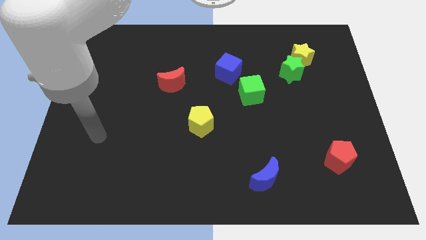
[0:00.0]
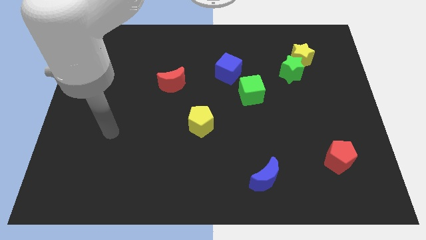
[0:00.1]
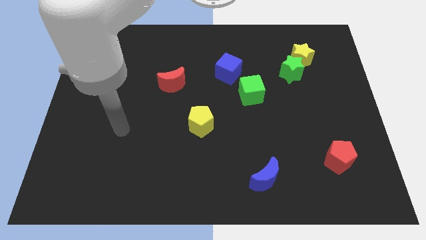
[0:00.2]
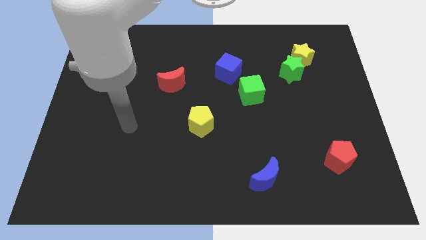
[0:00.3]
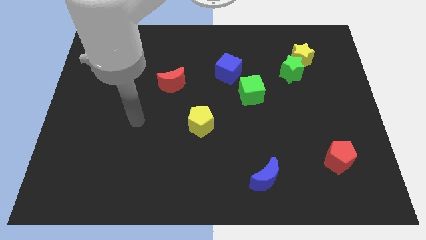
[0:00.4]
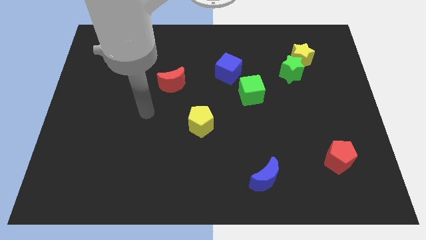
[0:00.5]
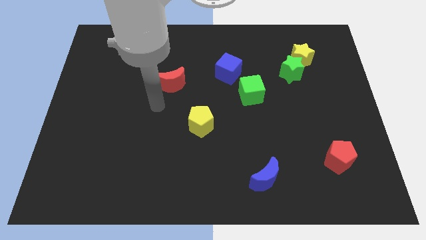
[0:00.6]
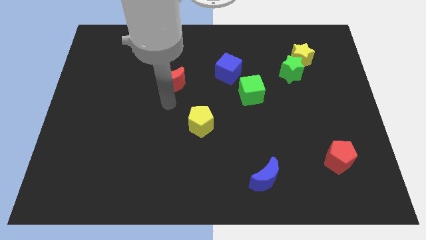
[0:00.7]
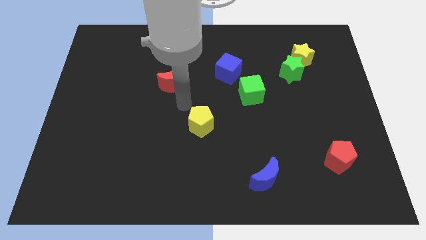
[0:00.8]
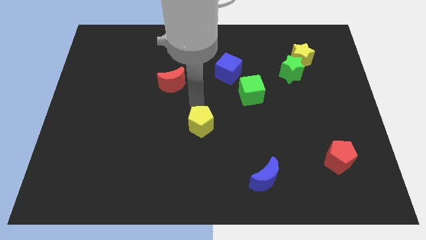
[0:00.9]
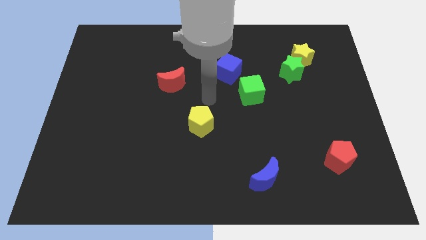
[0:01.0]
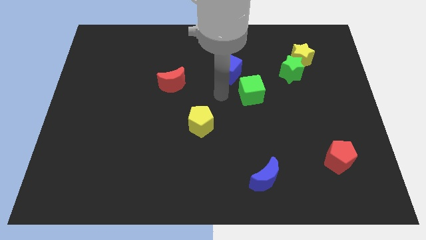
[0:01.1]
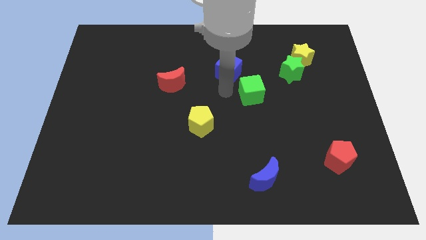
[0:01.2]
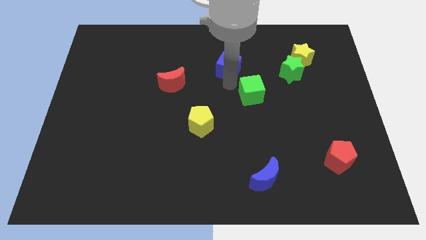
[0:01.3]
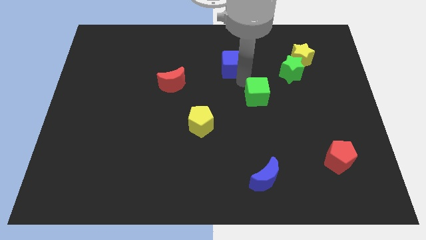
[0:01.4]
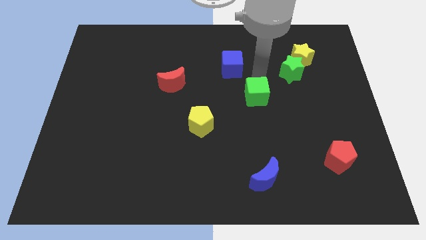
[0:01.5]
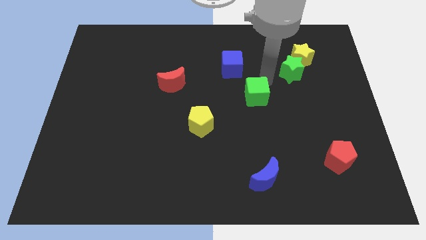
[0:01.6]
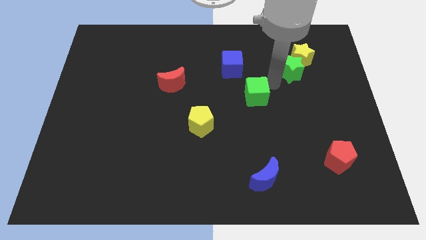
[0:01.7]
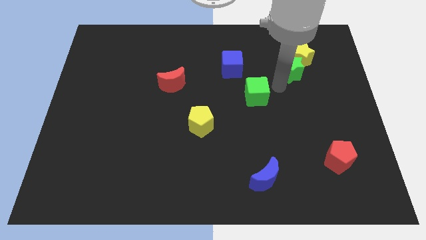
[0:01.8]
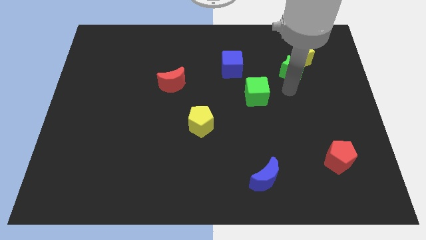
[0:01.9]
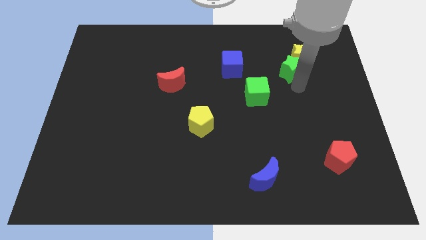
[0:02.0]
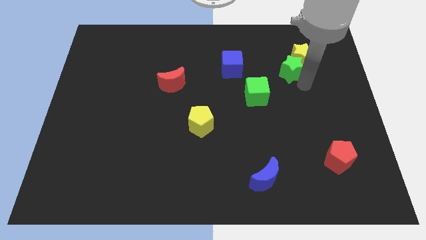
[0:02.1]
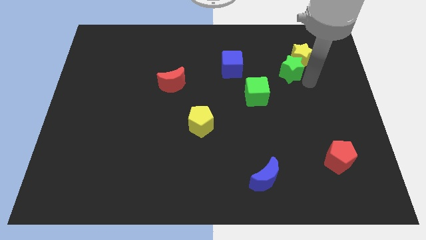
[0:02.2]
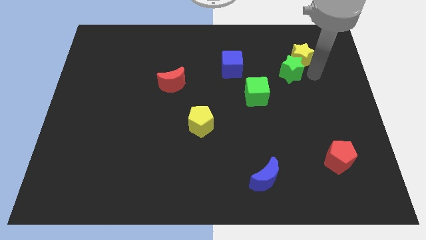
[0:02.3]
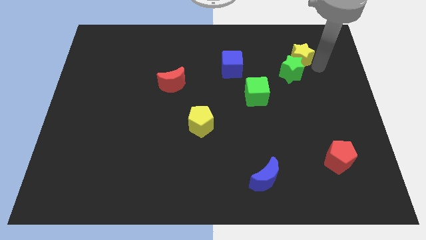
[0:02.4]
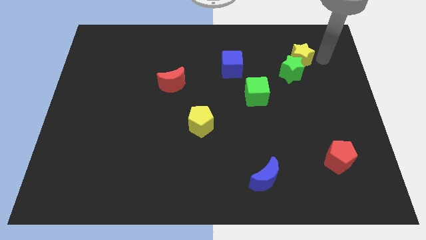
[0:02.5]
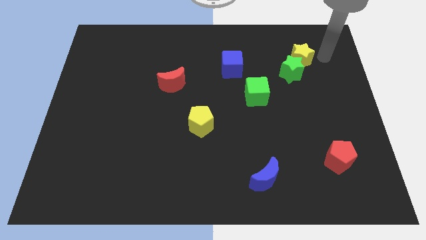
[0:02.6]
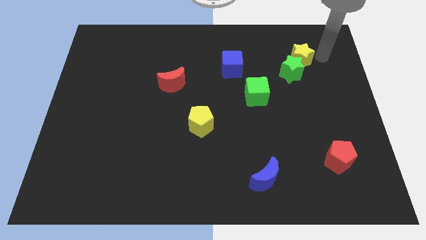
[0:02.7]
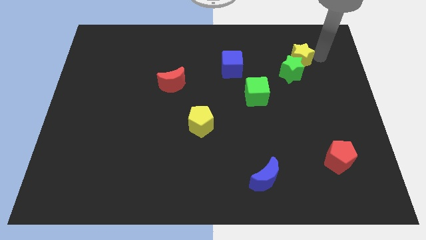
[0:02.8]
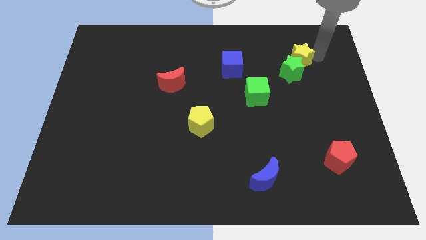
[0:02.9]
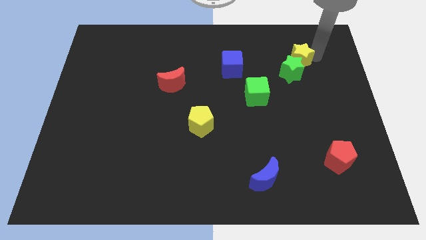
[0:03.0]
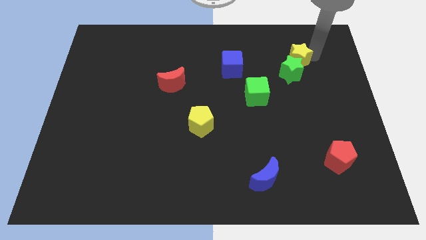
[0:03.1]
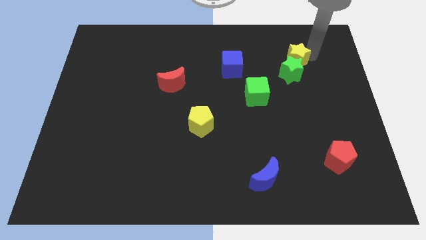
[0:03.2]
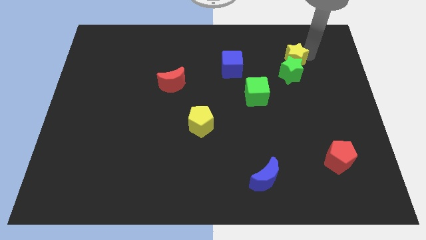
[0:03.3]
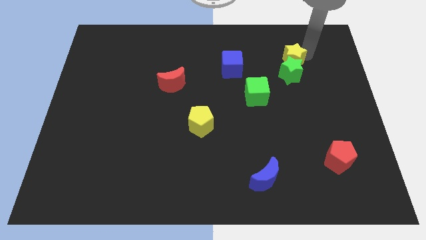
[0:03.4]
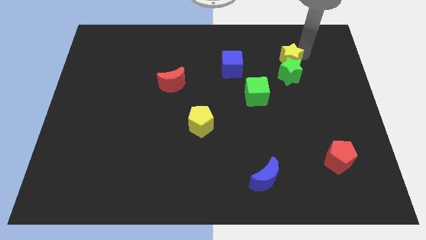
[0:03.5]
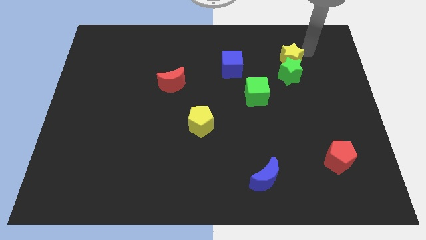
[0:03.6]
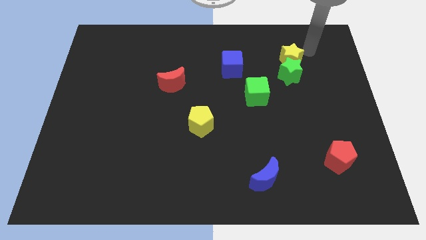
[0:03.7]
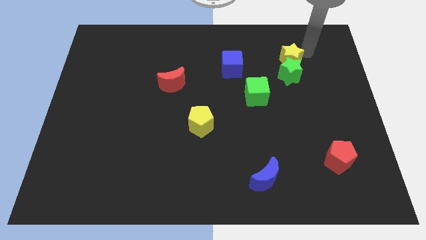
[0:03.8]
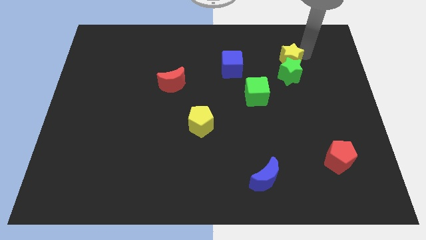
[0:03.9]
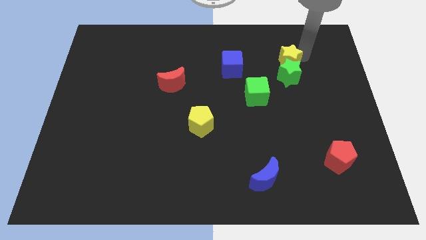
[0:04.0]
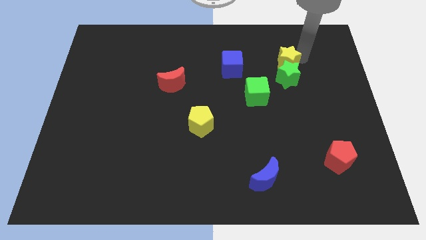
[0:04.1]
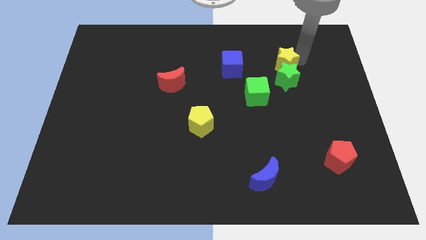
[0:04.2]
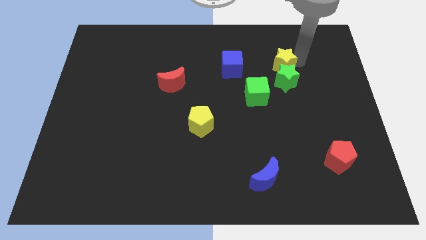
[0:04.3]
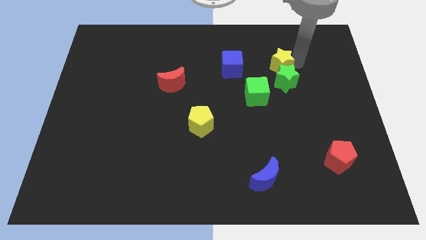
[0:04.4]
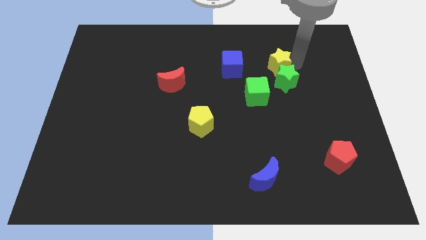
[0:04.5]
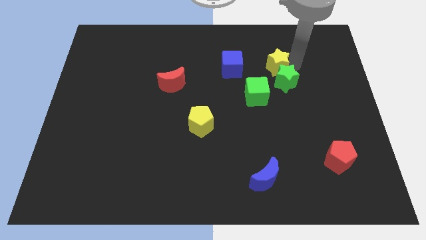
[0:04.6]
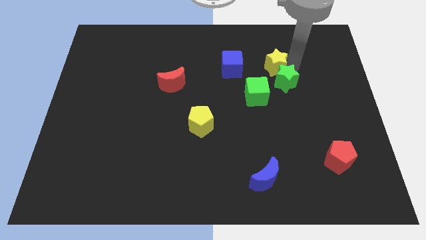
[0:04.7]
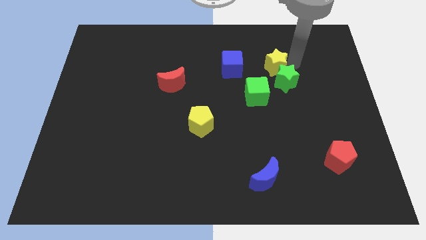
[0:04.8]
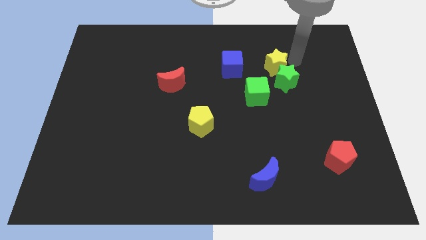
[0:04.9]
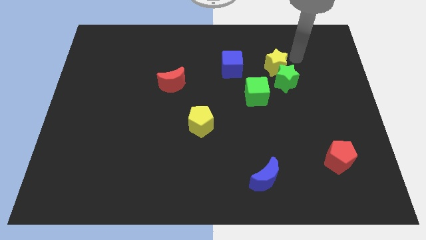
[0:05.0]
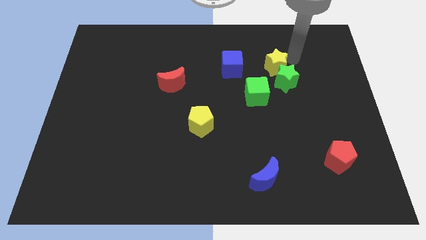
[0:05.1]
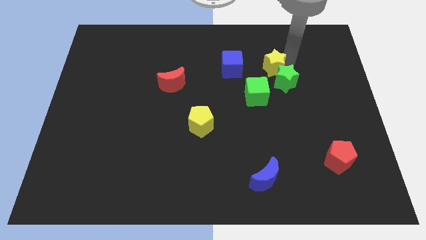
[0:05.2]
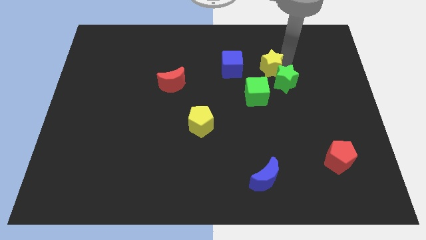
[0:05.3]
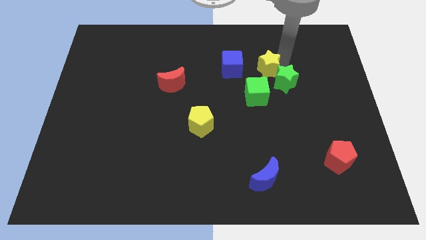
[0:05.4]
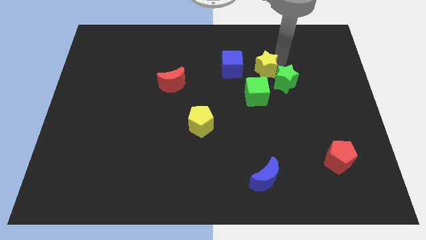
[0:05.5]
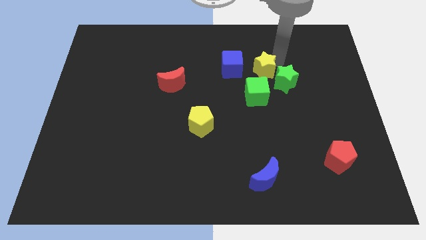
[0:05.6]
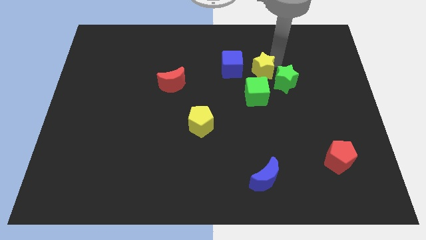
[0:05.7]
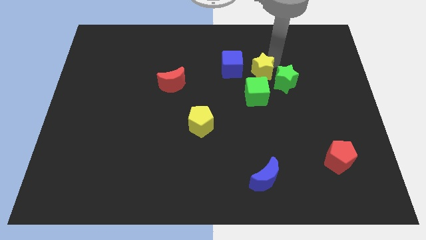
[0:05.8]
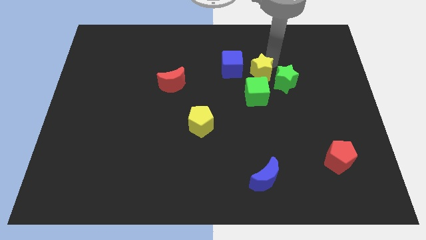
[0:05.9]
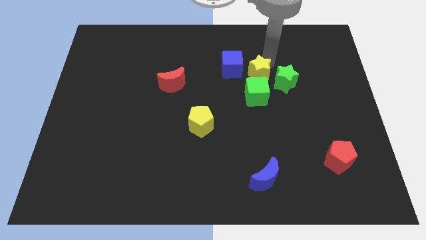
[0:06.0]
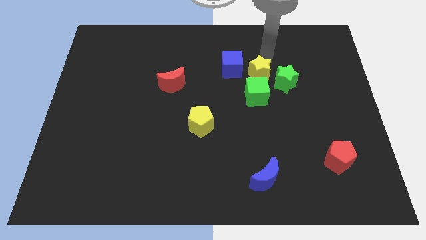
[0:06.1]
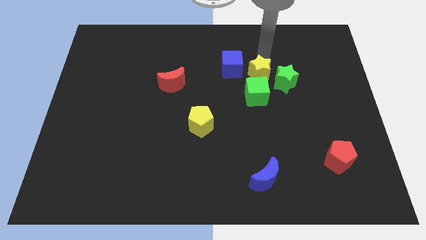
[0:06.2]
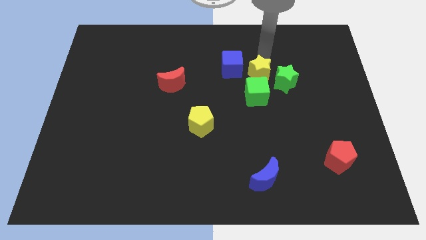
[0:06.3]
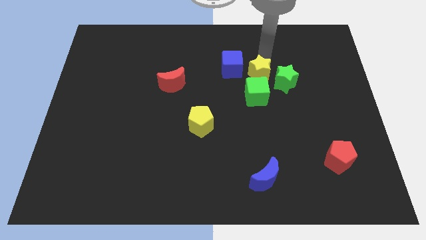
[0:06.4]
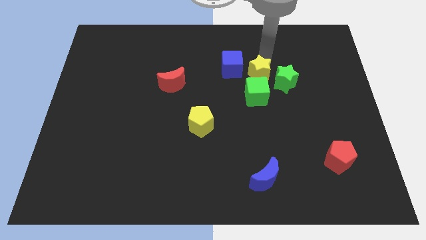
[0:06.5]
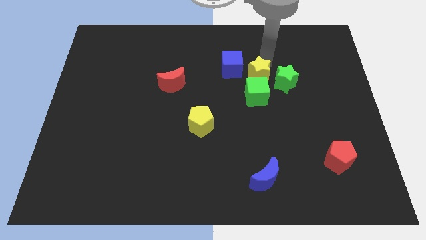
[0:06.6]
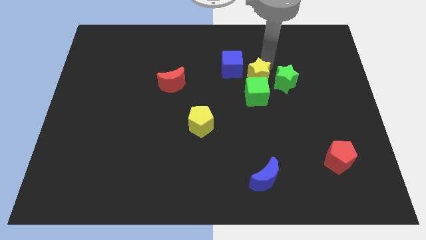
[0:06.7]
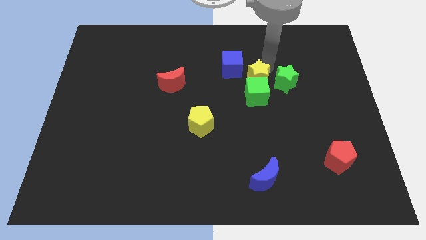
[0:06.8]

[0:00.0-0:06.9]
push the yellow star towards the green cube
